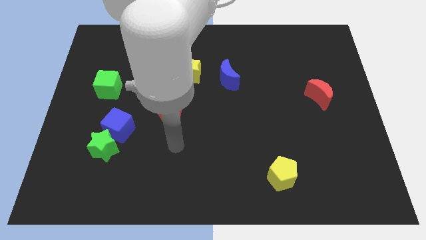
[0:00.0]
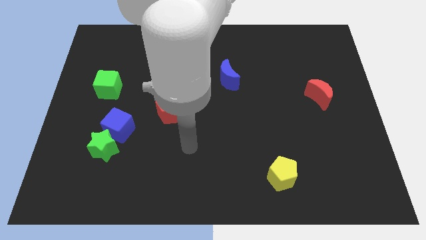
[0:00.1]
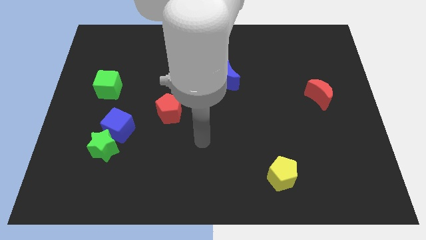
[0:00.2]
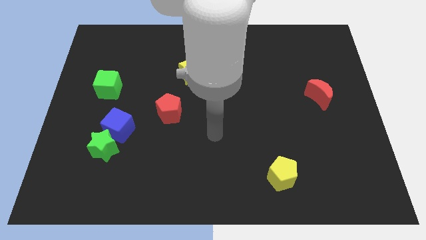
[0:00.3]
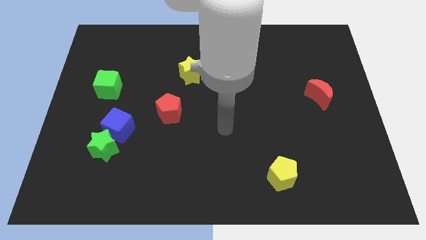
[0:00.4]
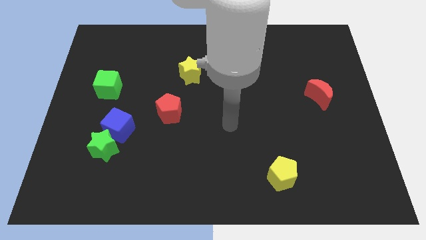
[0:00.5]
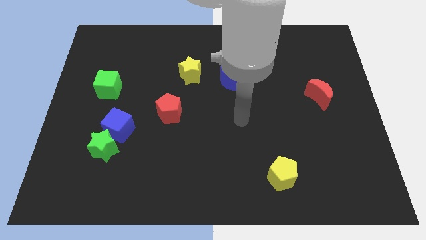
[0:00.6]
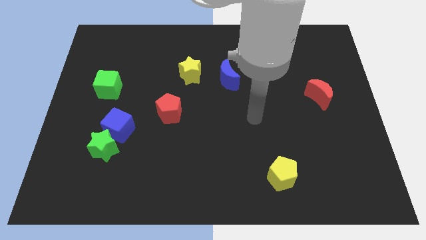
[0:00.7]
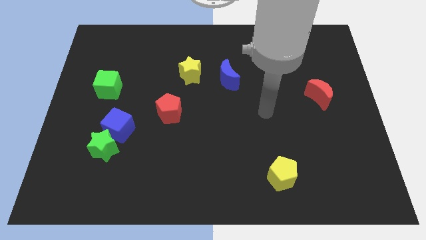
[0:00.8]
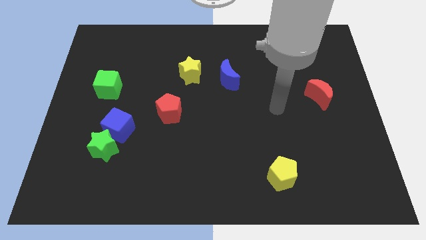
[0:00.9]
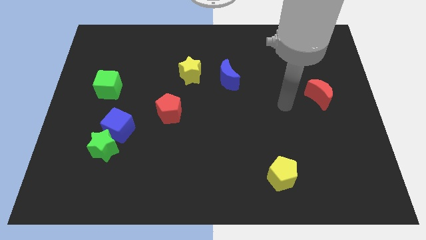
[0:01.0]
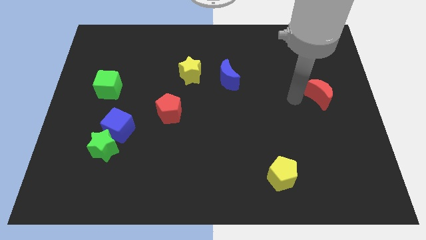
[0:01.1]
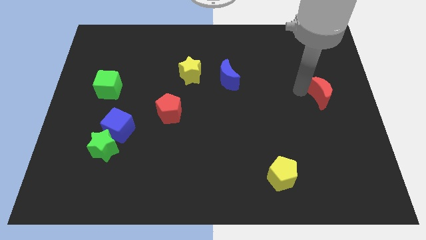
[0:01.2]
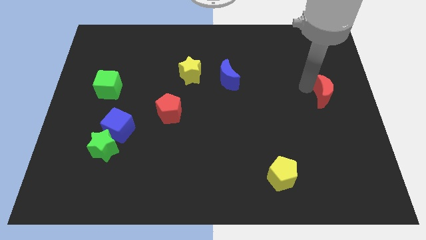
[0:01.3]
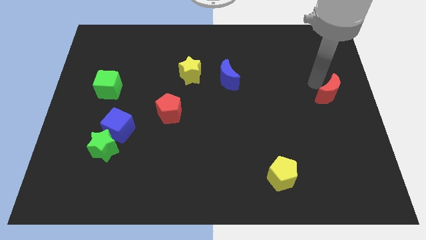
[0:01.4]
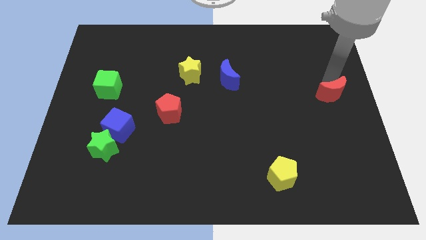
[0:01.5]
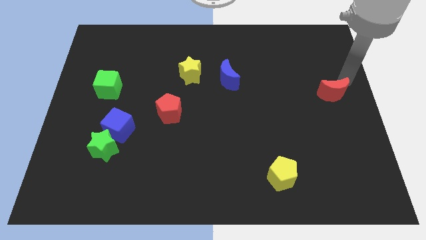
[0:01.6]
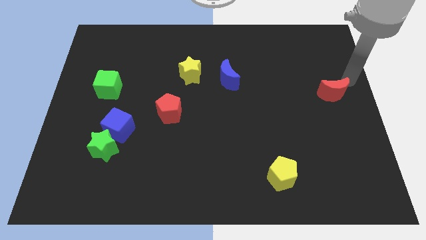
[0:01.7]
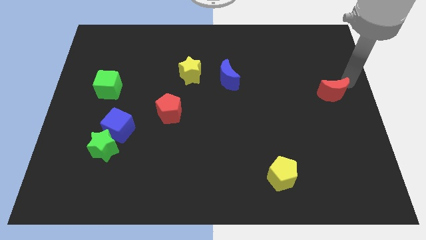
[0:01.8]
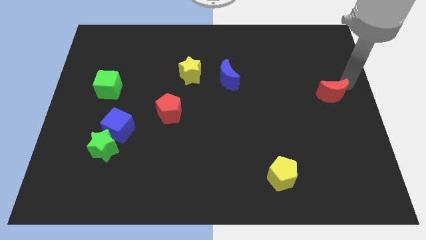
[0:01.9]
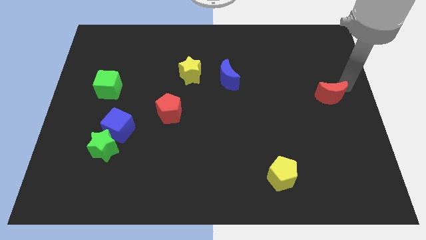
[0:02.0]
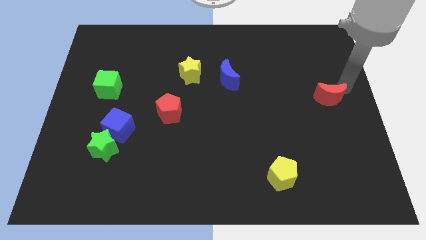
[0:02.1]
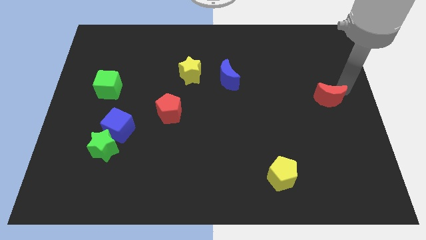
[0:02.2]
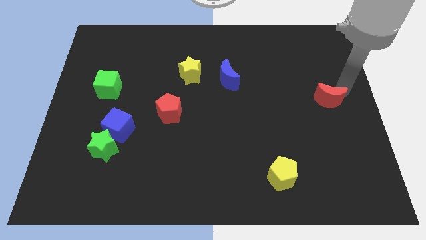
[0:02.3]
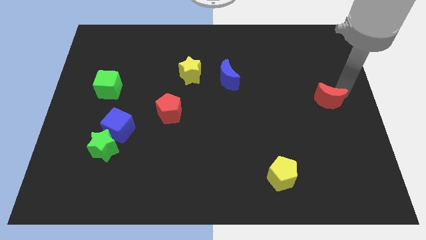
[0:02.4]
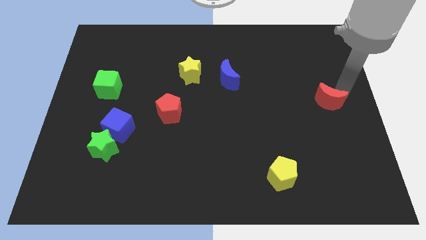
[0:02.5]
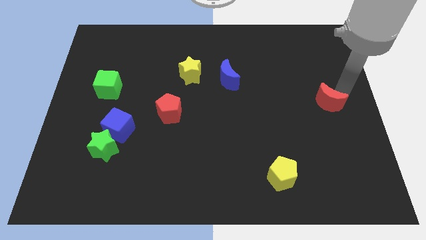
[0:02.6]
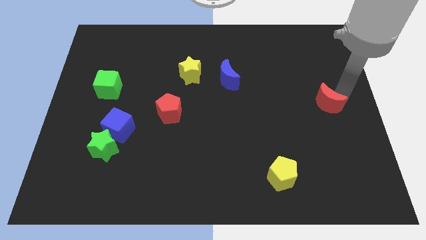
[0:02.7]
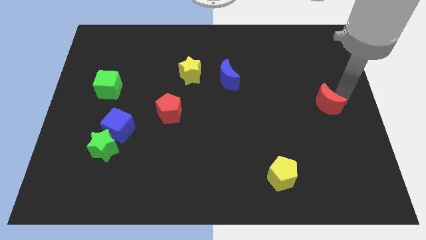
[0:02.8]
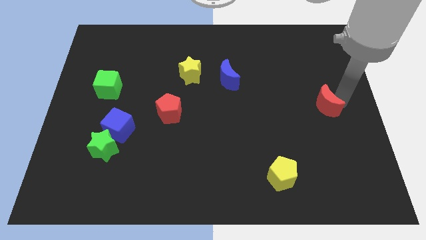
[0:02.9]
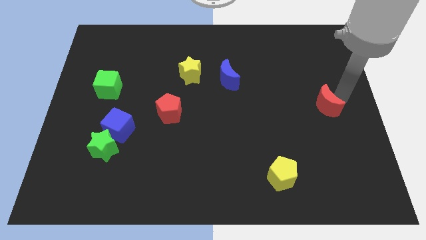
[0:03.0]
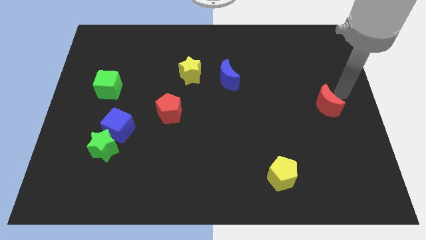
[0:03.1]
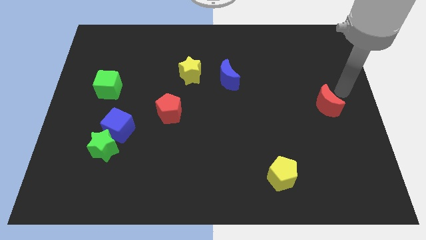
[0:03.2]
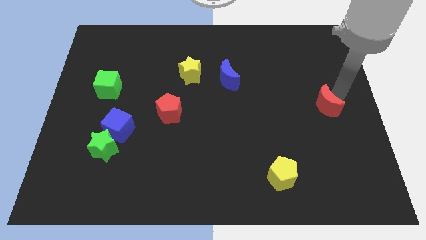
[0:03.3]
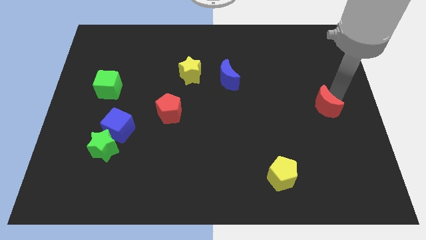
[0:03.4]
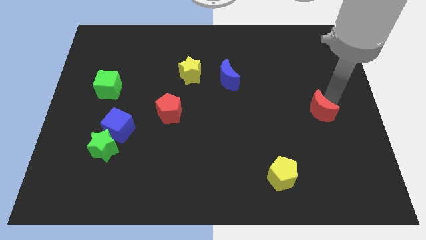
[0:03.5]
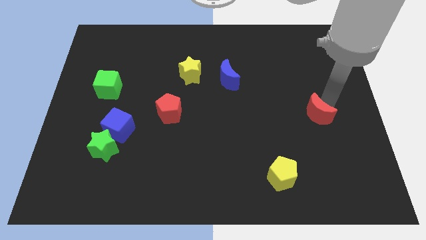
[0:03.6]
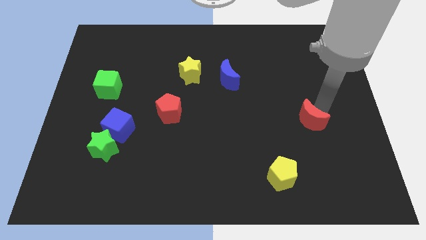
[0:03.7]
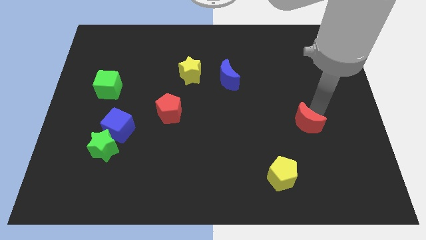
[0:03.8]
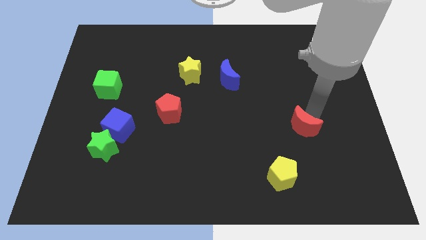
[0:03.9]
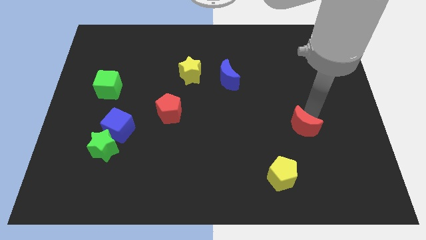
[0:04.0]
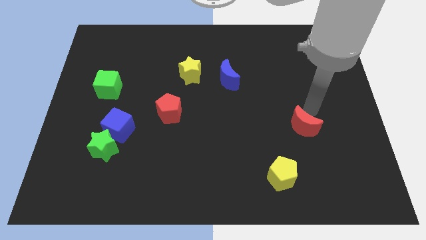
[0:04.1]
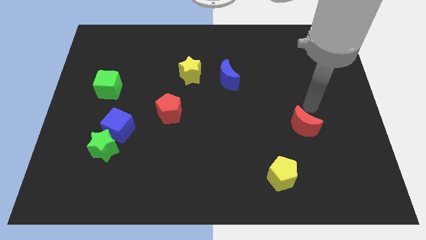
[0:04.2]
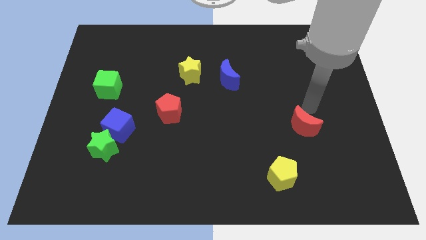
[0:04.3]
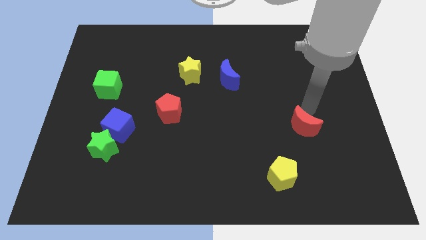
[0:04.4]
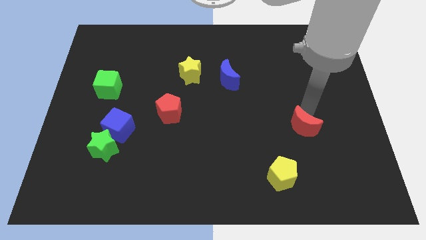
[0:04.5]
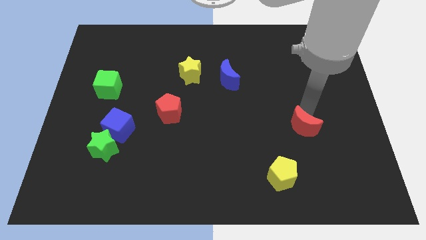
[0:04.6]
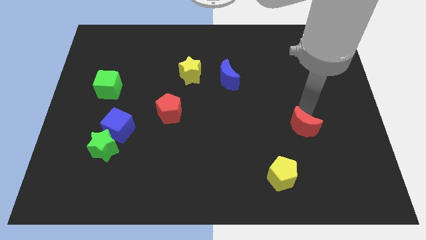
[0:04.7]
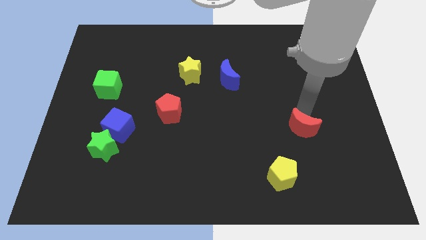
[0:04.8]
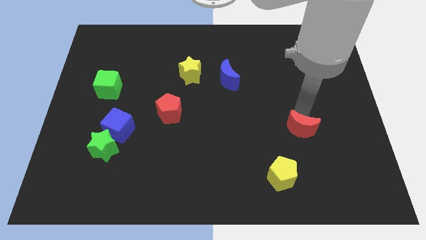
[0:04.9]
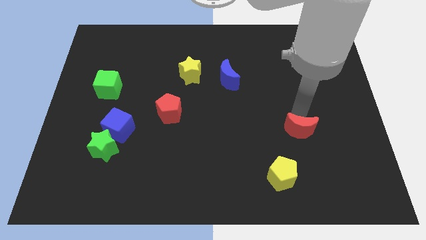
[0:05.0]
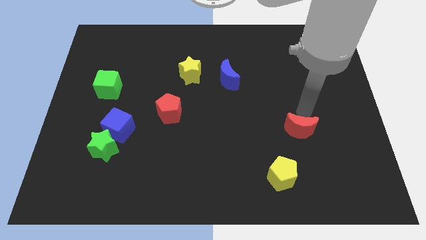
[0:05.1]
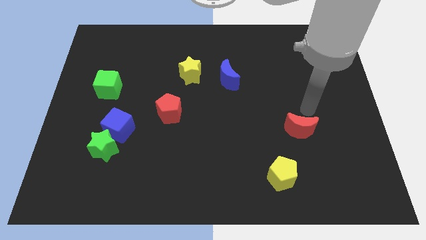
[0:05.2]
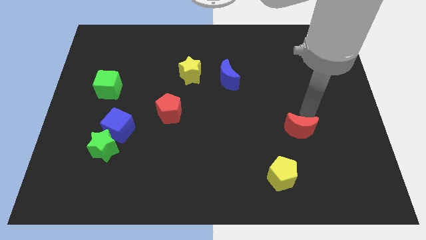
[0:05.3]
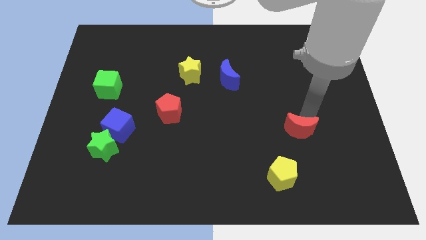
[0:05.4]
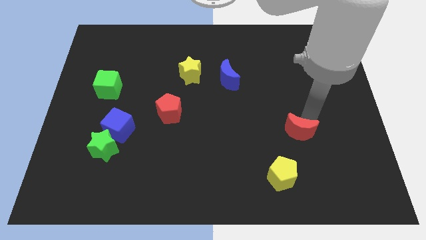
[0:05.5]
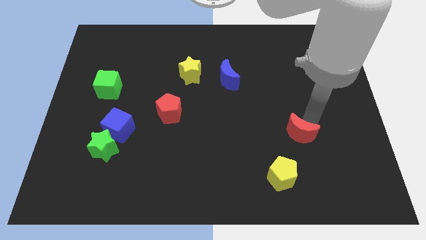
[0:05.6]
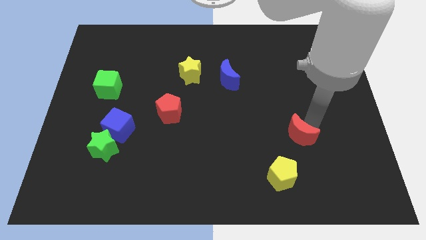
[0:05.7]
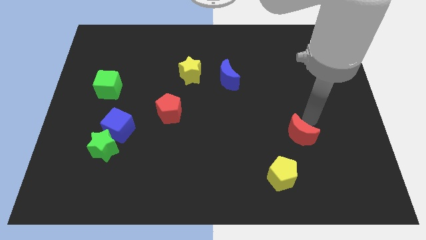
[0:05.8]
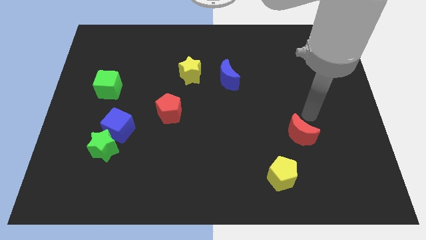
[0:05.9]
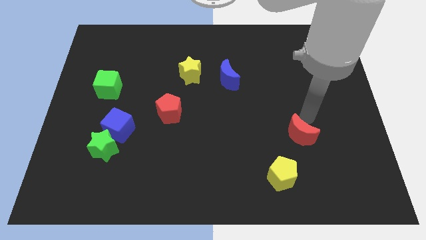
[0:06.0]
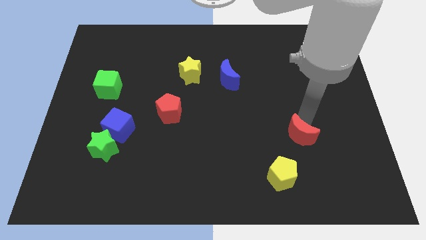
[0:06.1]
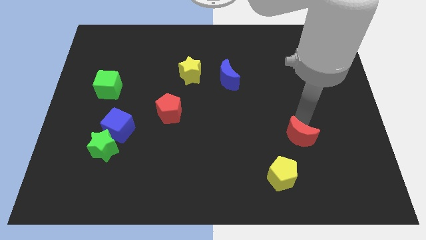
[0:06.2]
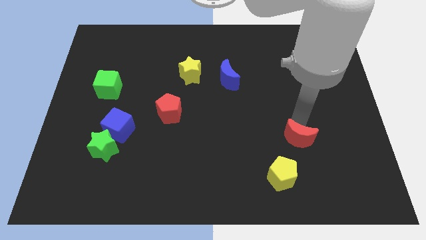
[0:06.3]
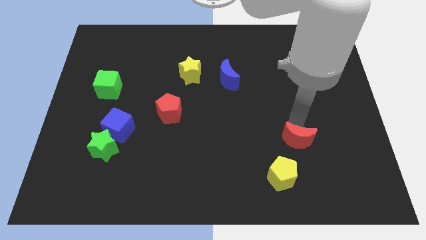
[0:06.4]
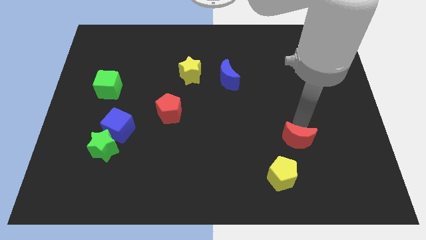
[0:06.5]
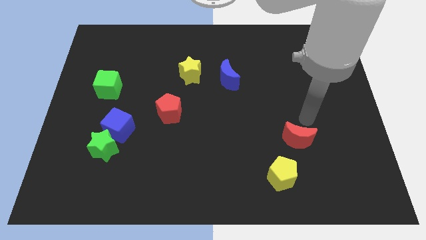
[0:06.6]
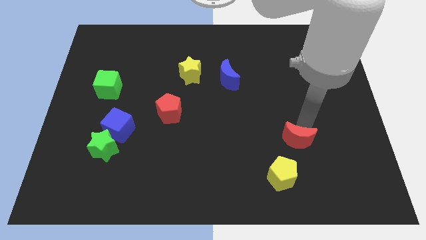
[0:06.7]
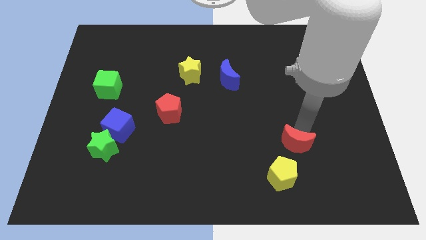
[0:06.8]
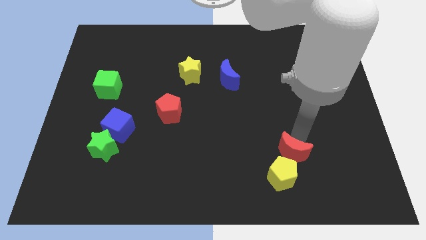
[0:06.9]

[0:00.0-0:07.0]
slide the red moon towards the yellow pentagon
